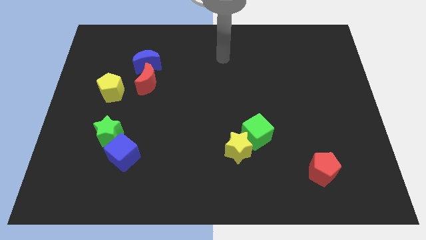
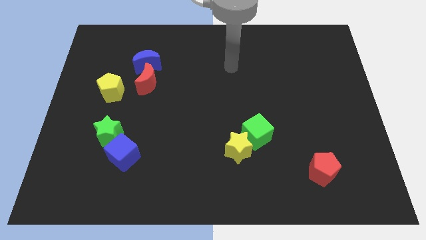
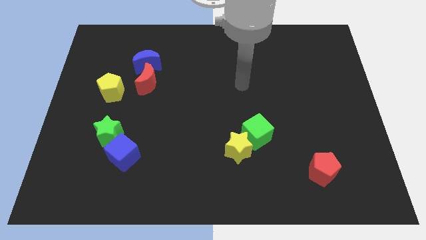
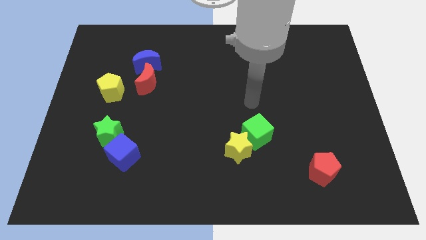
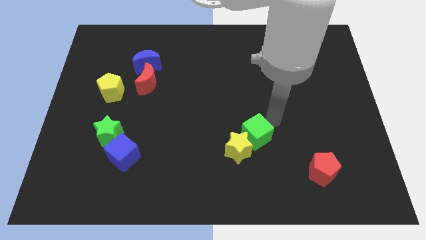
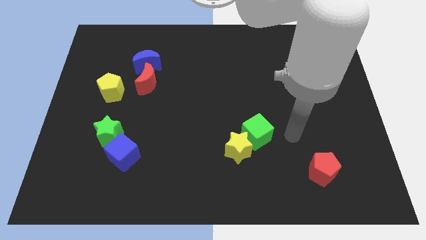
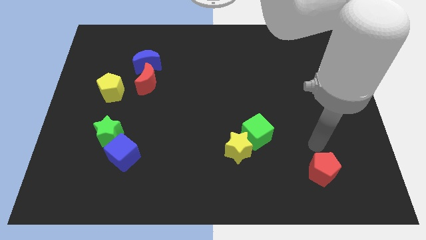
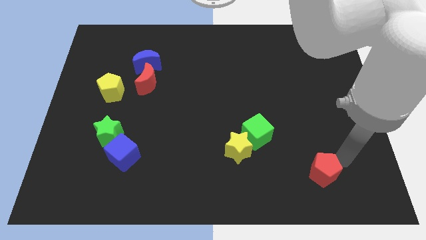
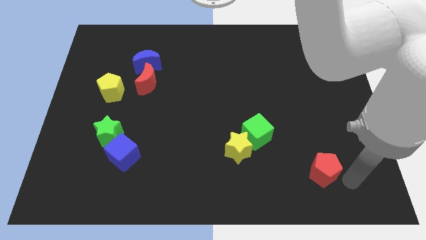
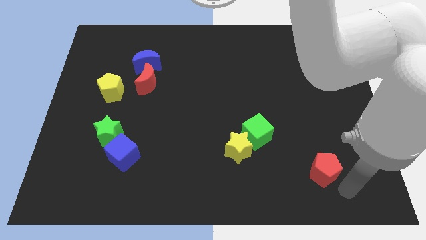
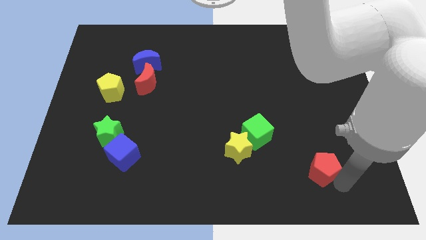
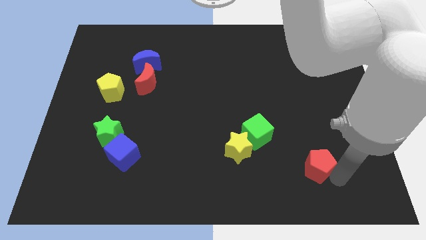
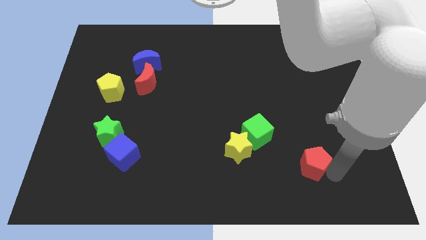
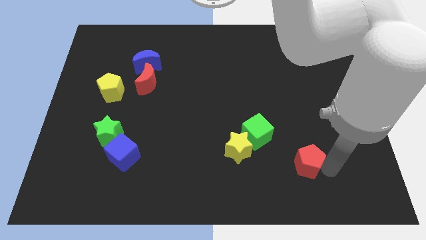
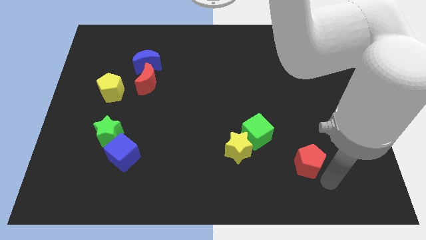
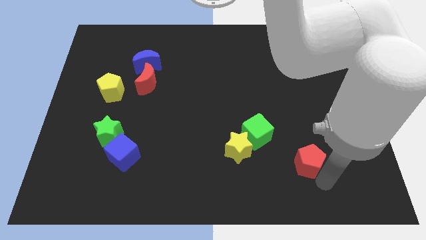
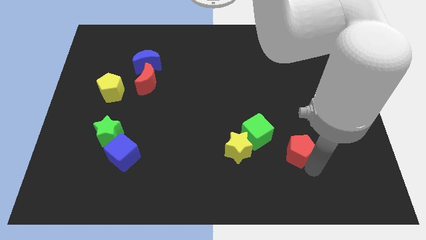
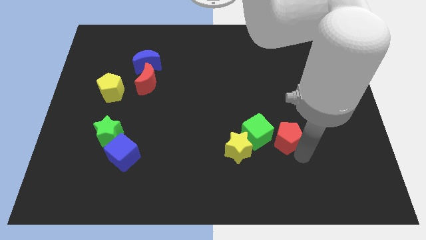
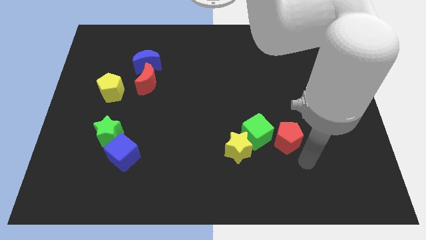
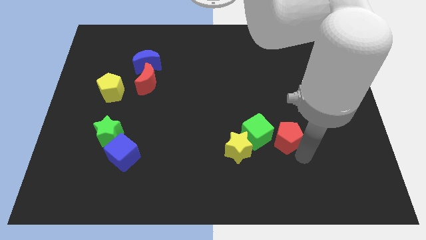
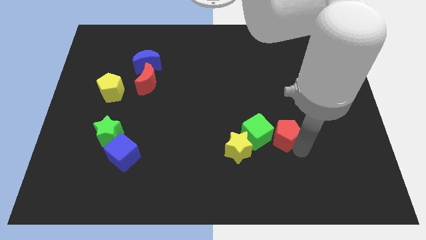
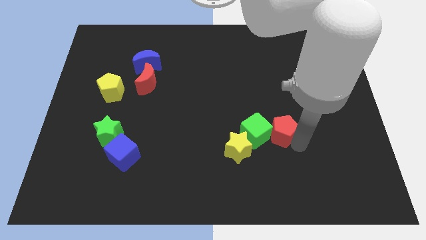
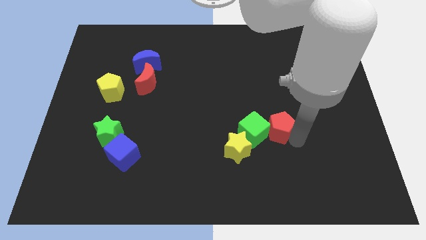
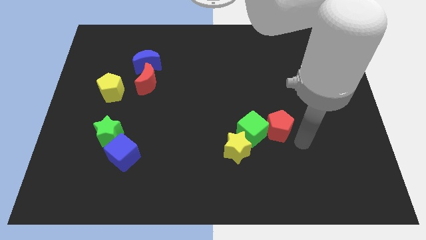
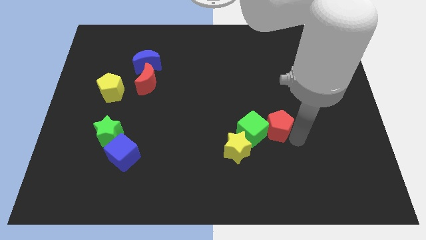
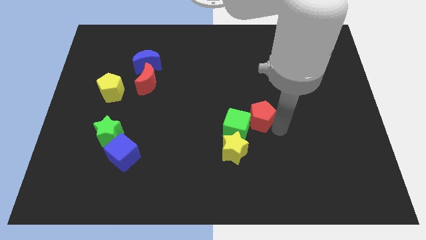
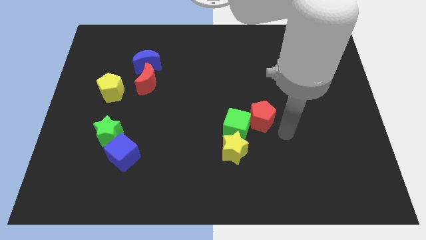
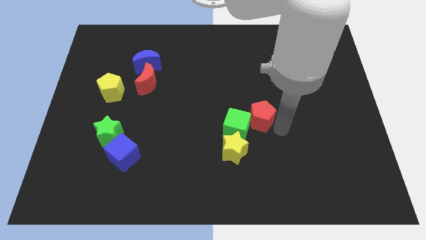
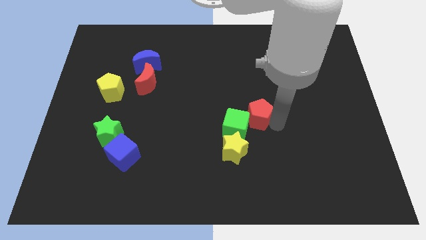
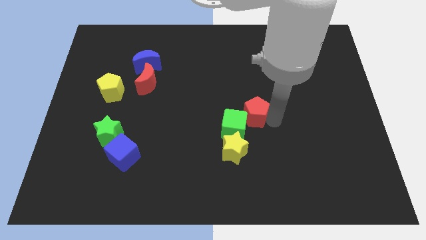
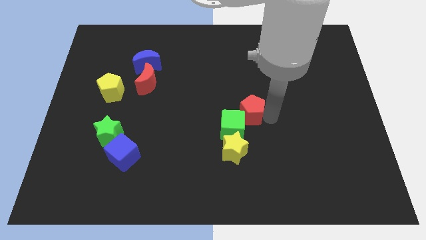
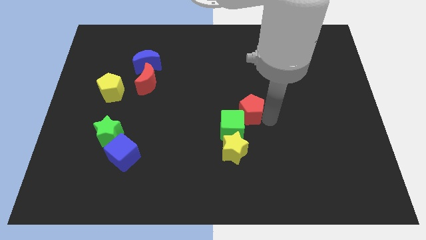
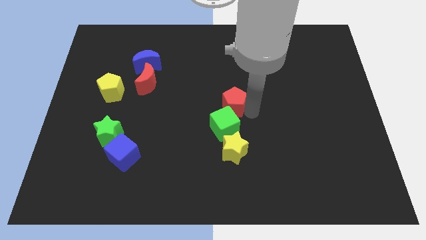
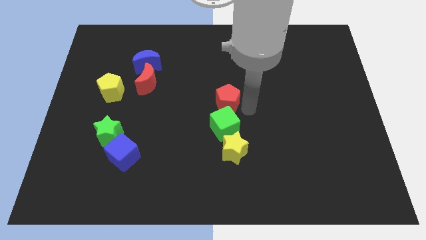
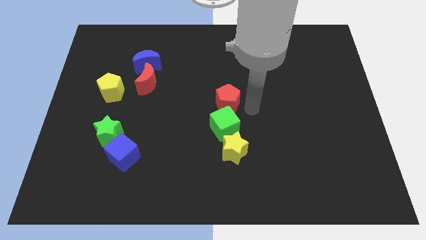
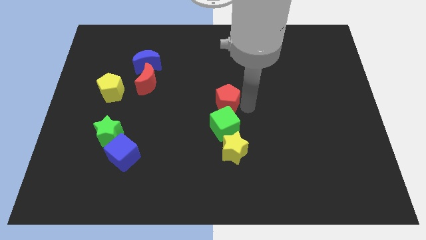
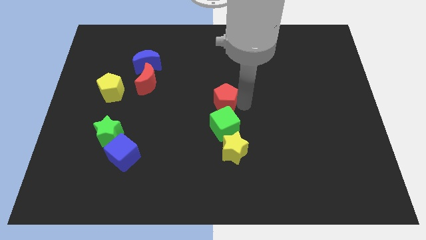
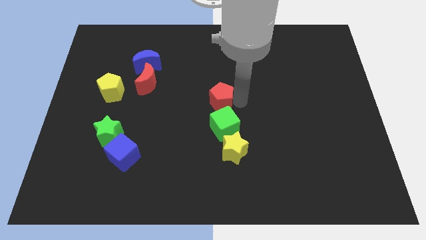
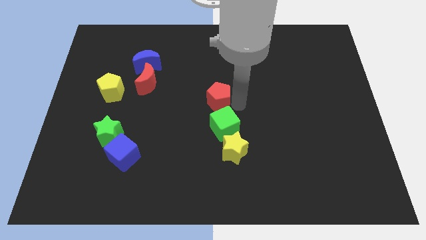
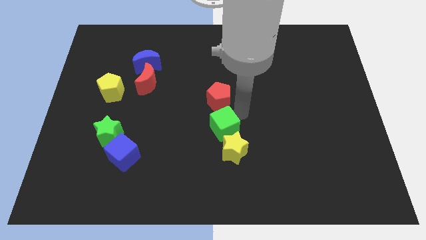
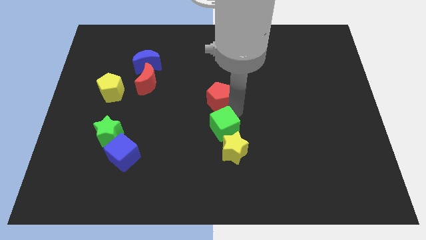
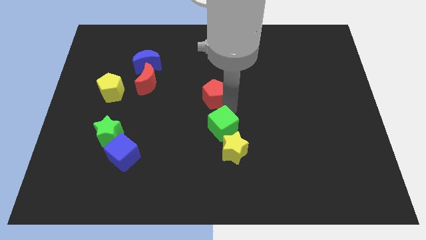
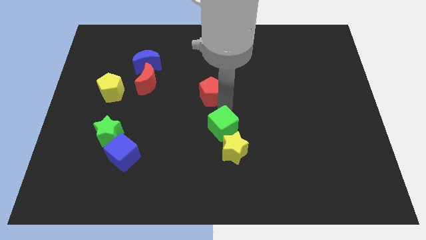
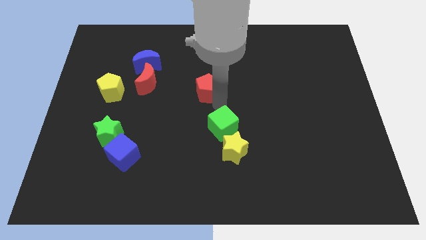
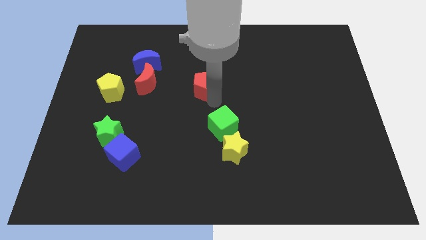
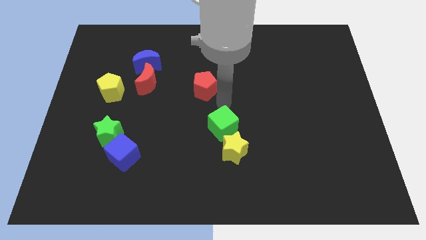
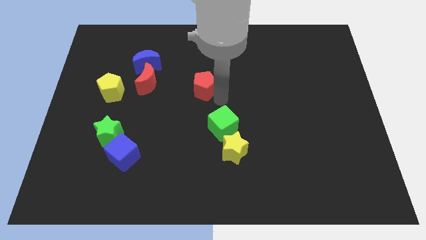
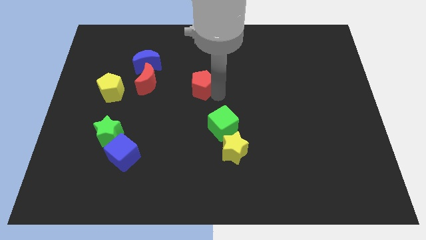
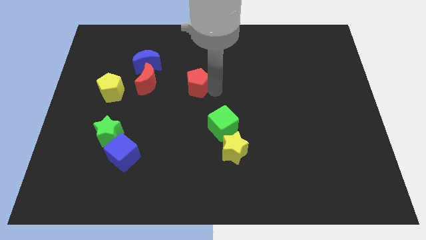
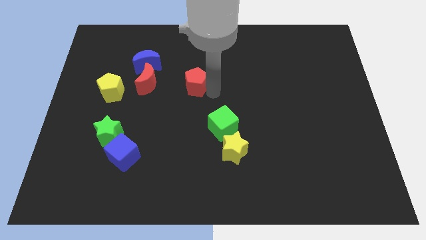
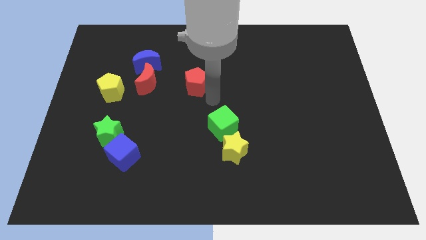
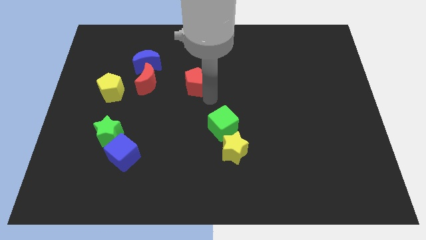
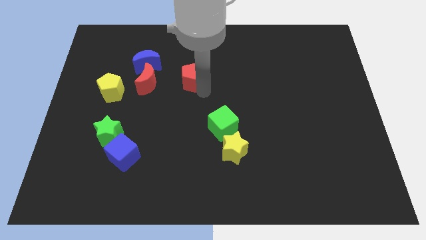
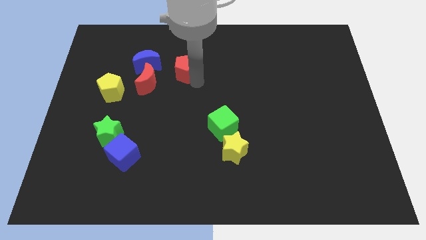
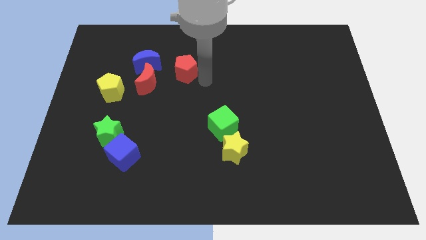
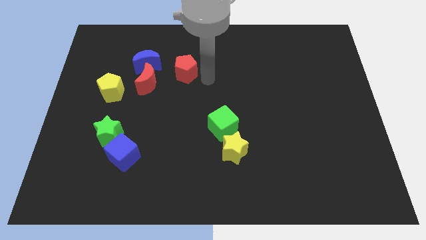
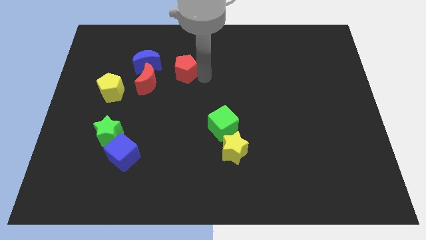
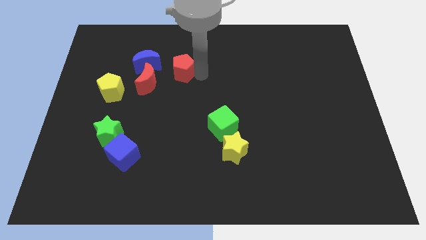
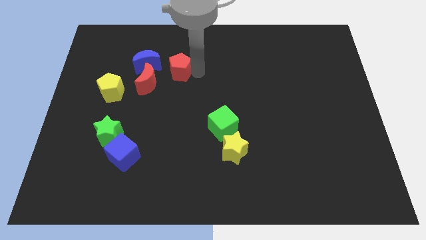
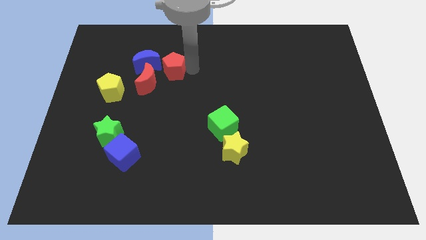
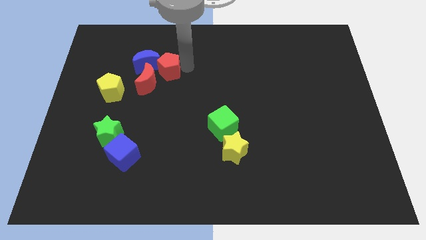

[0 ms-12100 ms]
put the red pentagon towards the blue moon

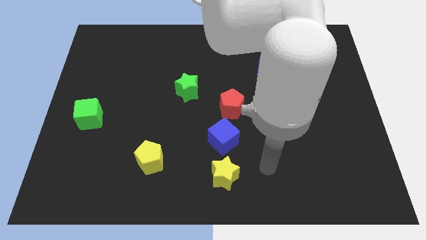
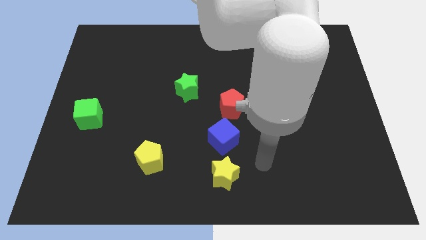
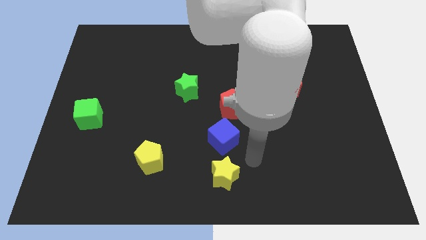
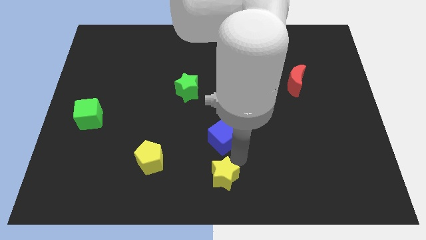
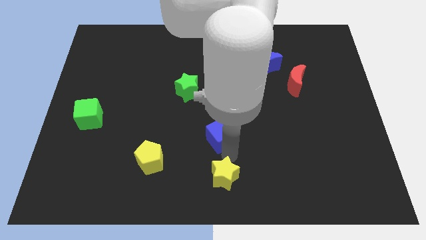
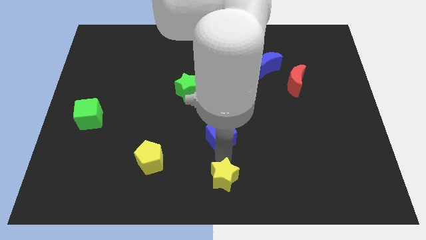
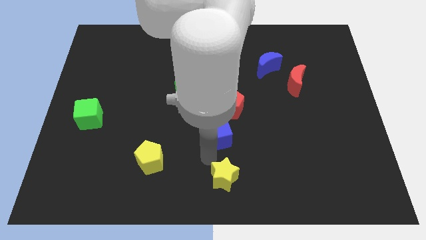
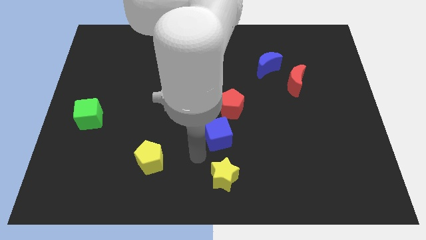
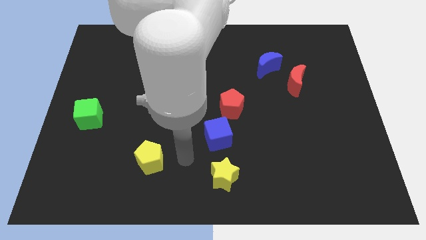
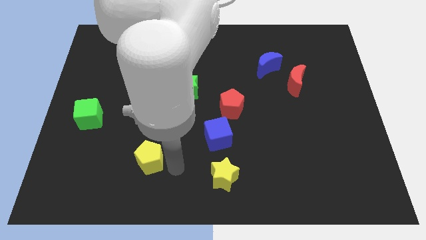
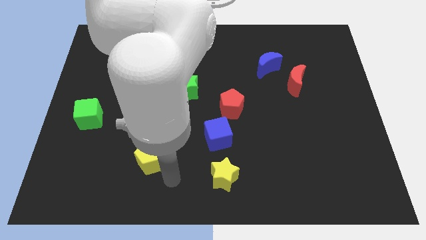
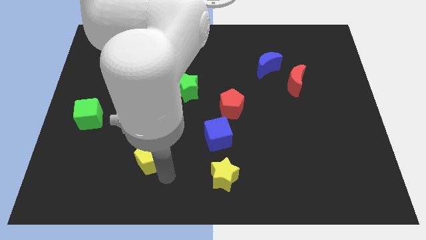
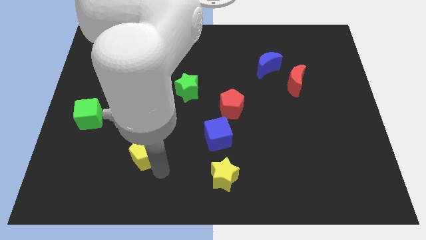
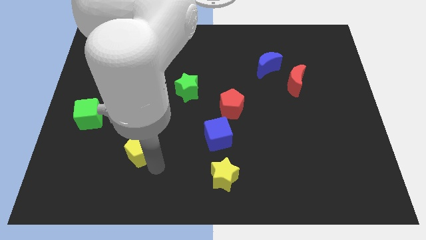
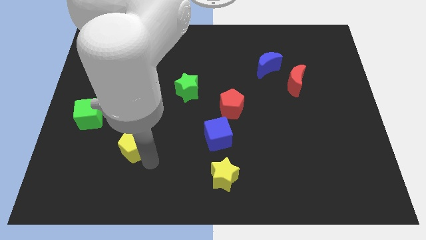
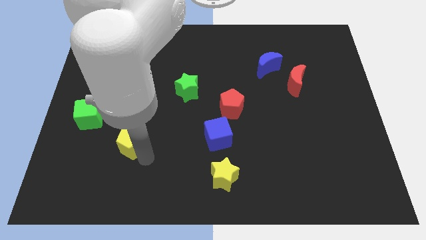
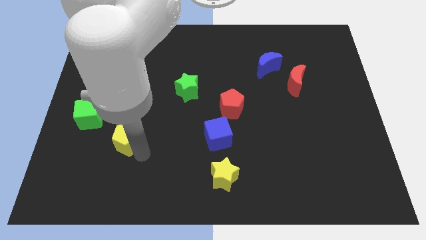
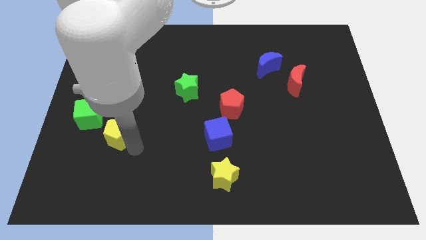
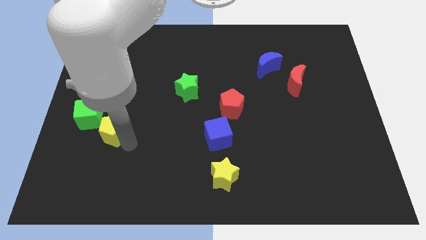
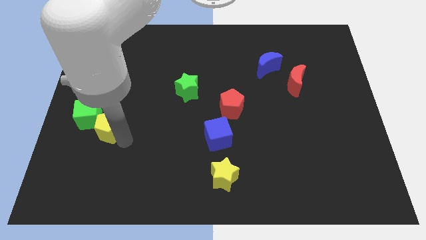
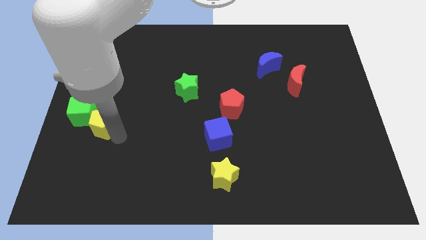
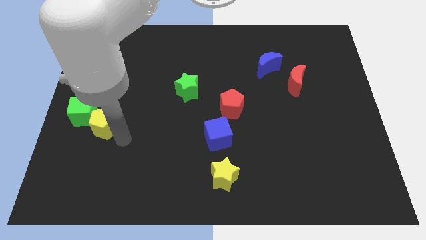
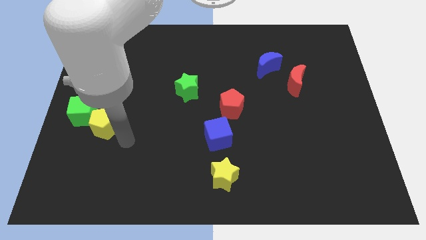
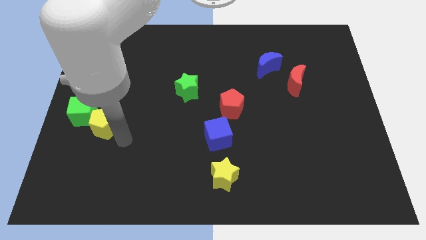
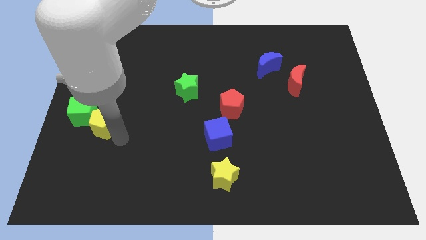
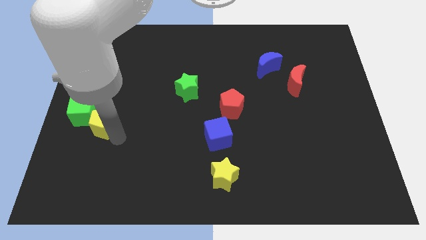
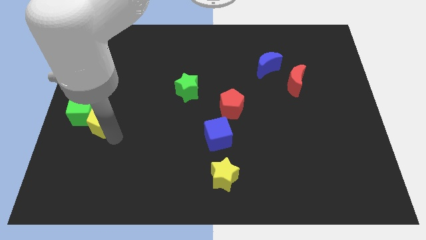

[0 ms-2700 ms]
push the yellow pentagon close to the green cube
